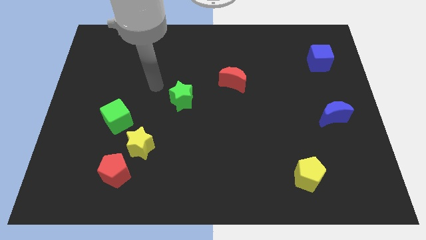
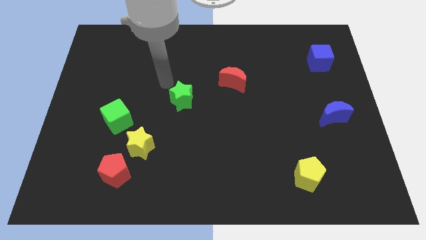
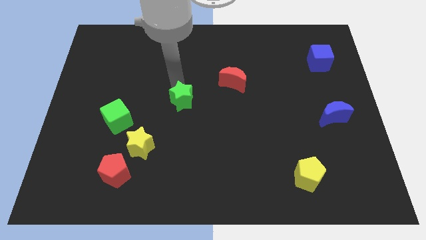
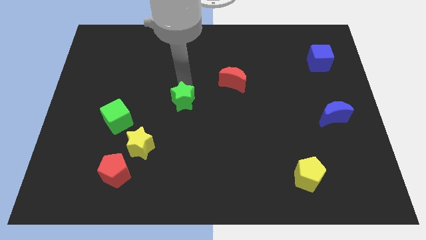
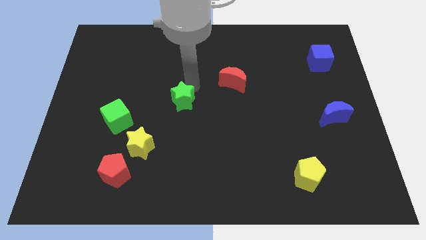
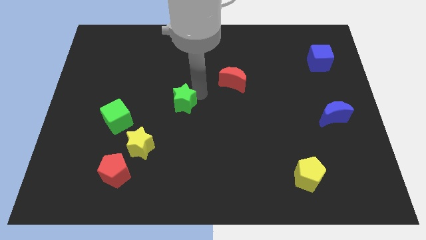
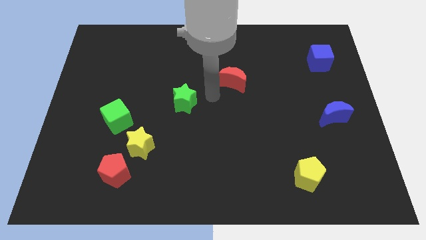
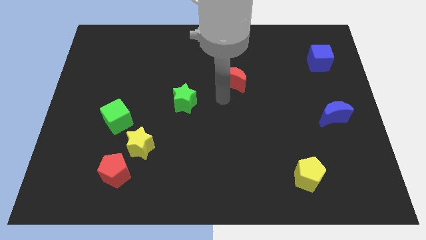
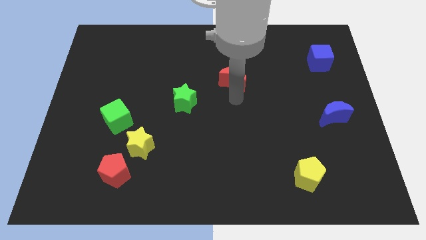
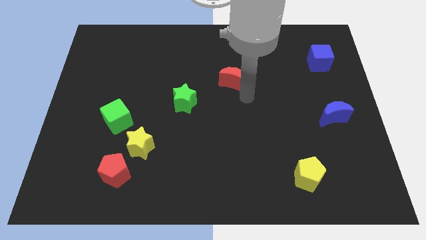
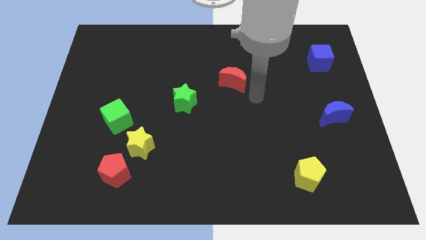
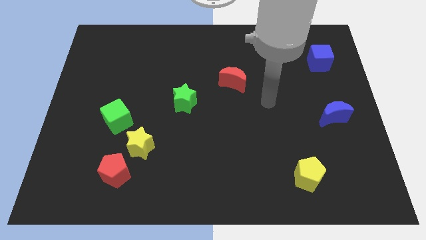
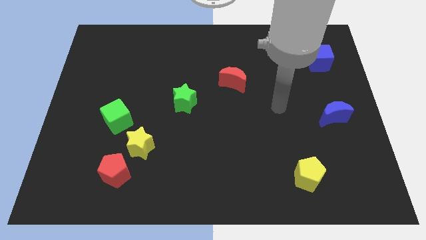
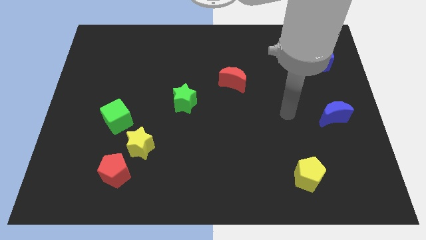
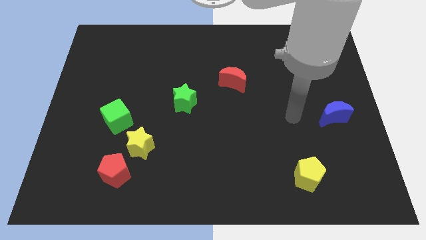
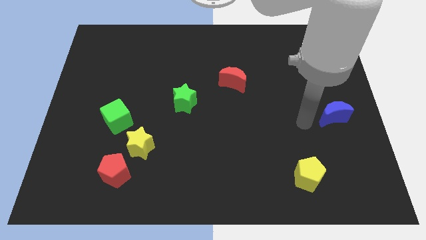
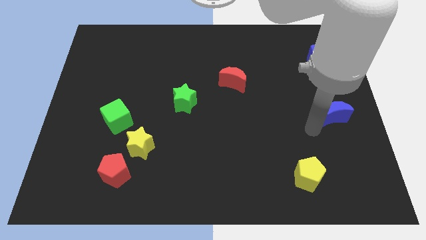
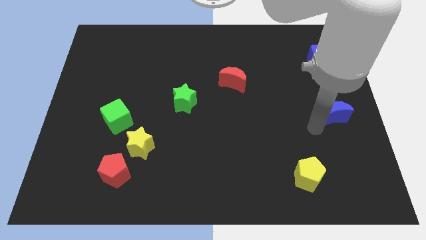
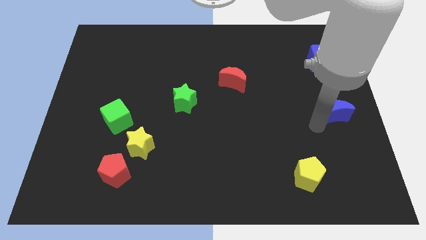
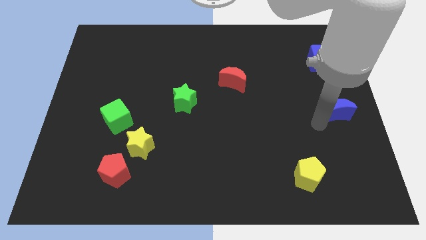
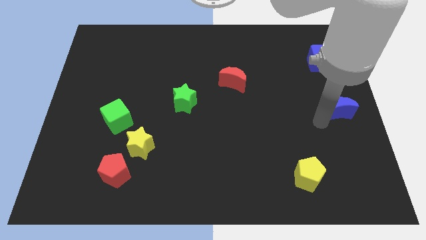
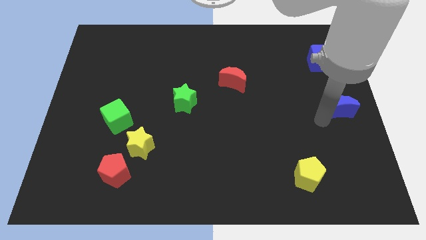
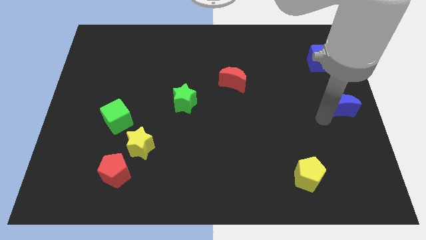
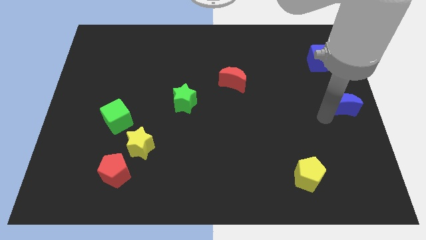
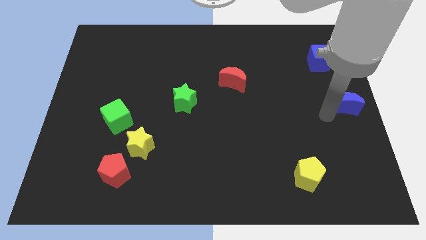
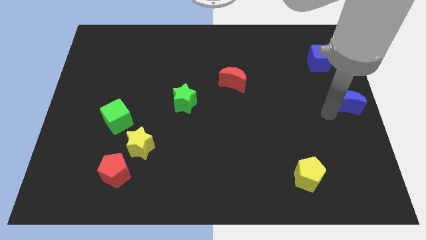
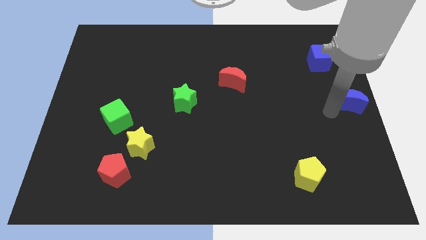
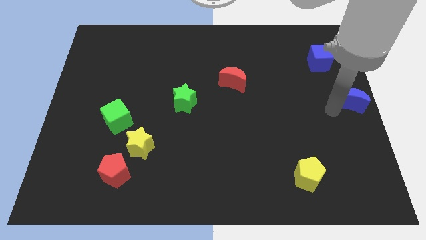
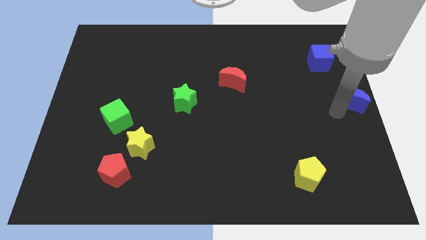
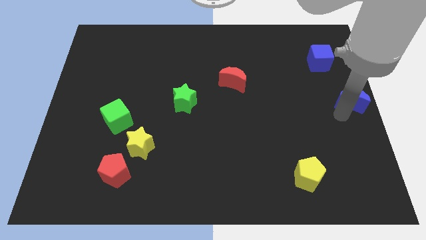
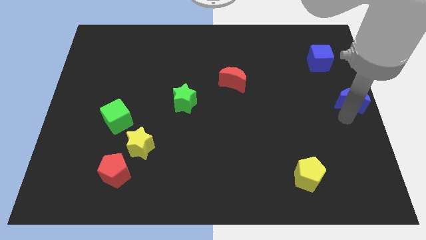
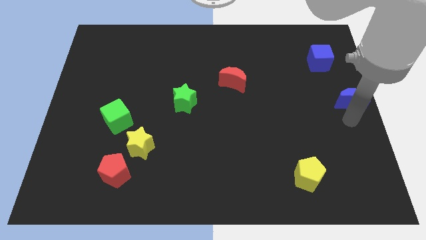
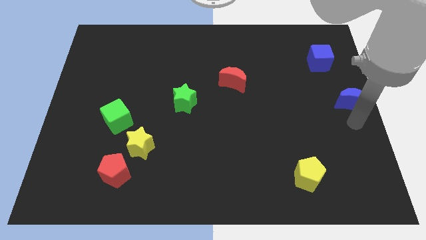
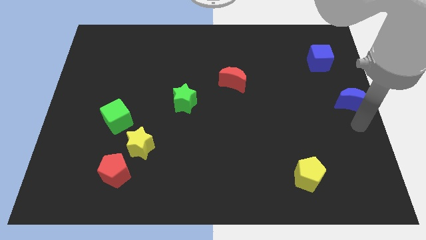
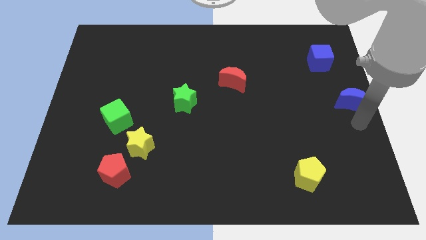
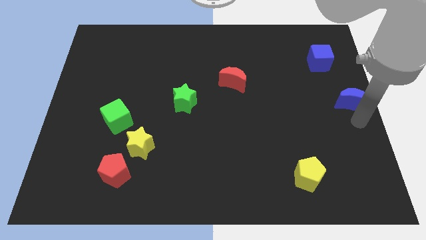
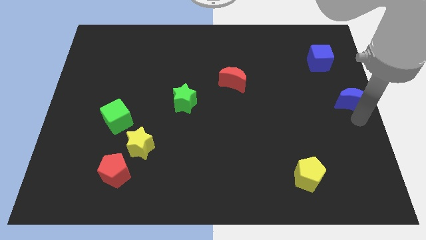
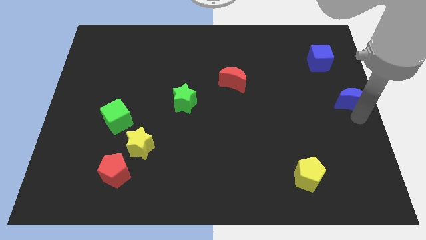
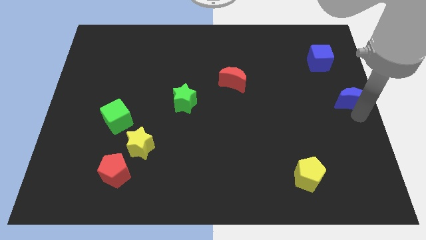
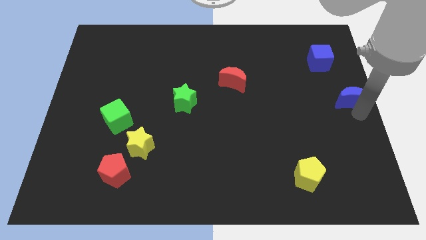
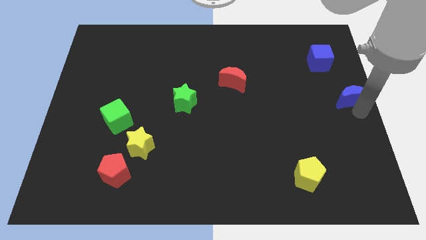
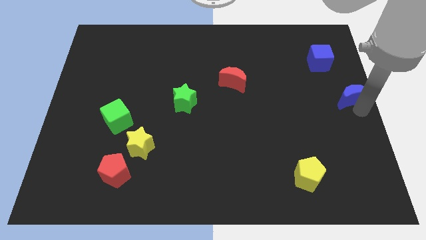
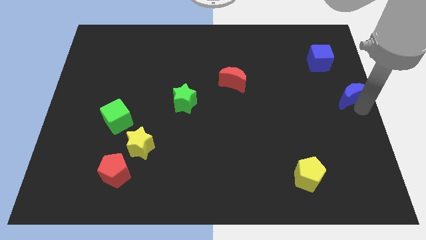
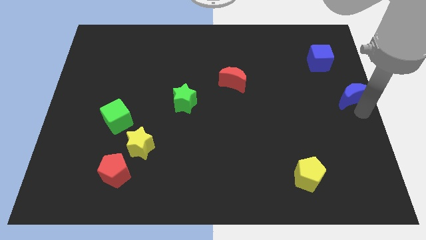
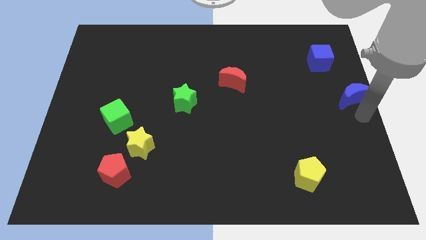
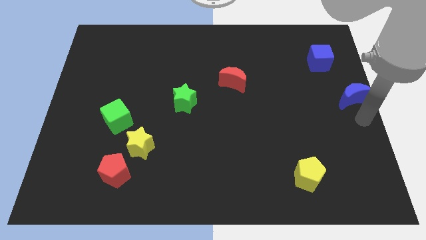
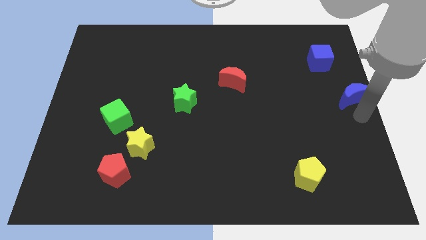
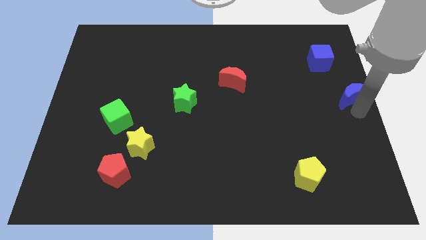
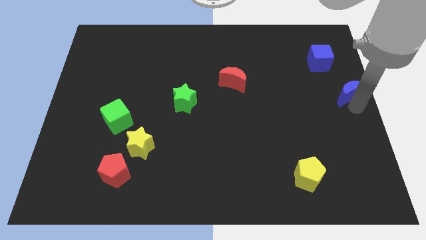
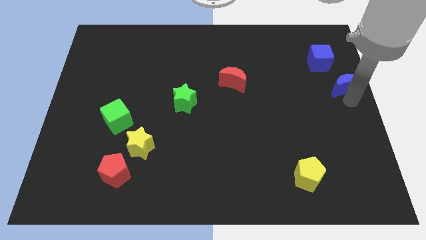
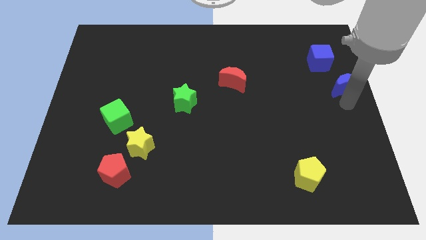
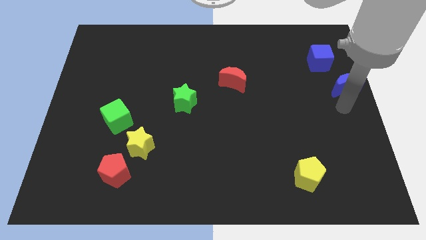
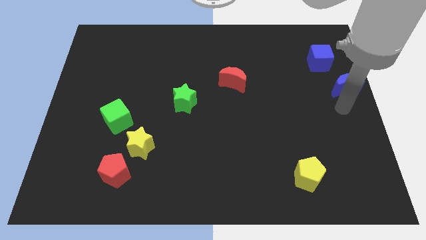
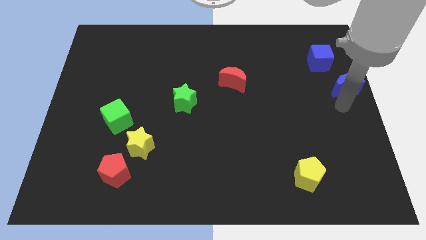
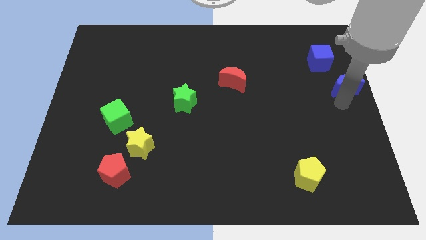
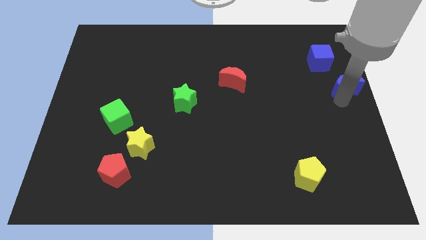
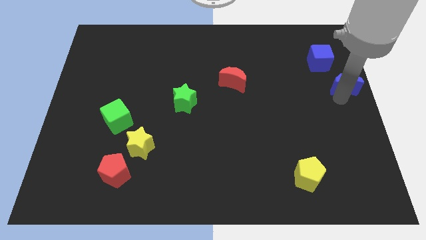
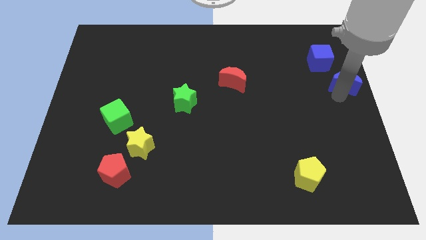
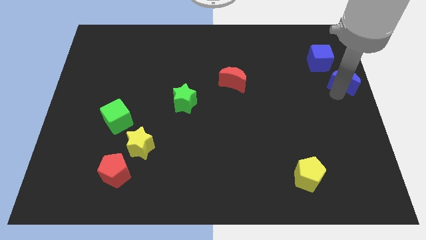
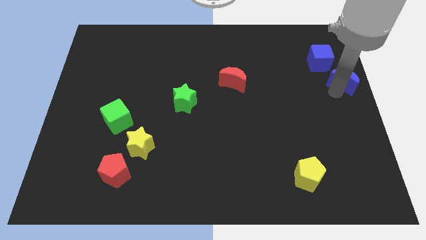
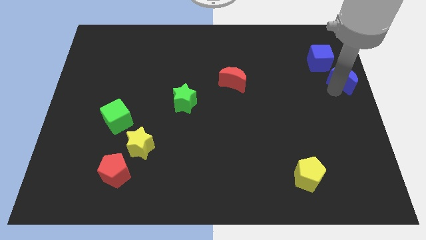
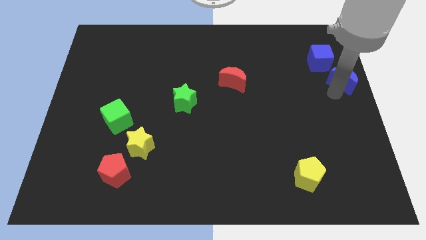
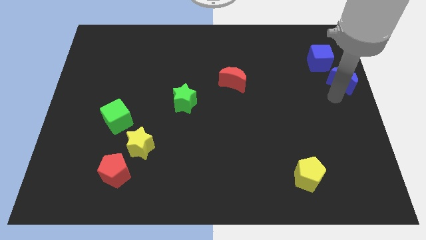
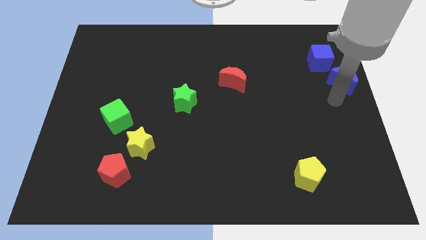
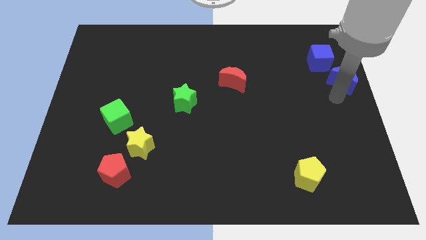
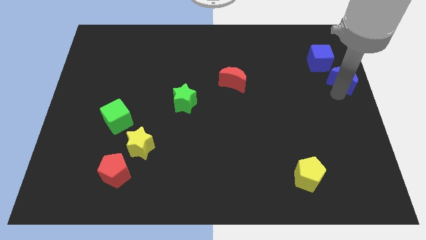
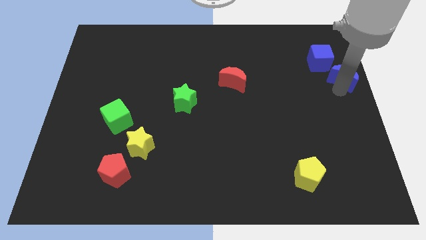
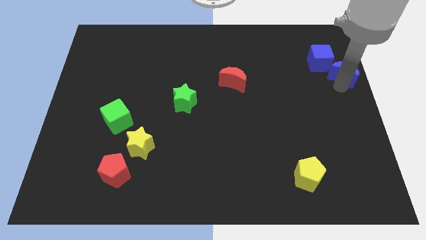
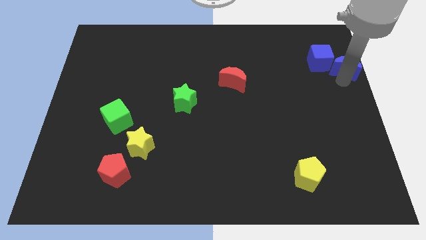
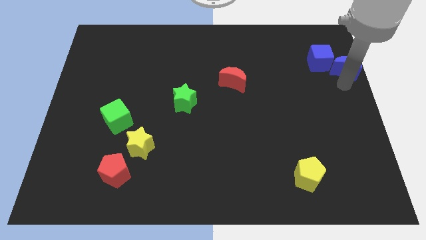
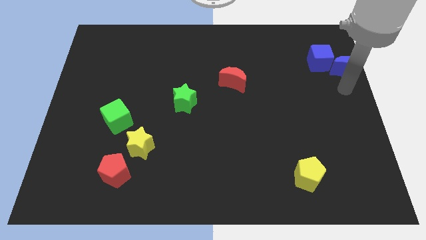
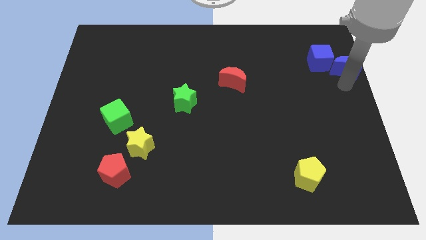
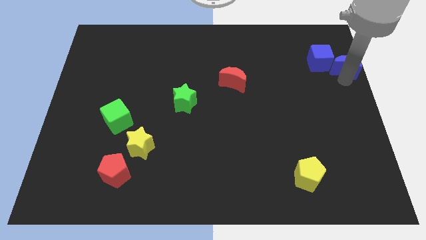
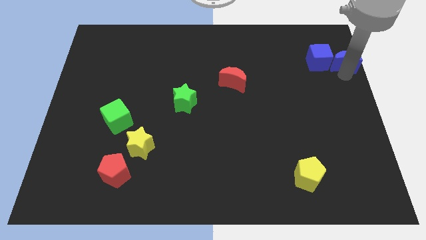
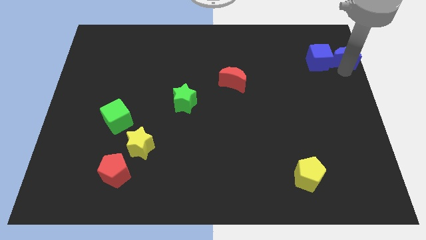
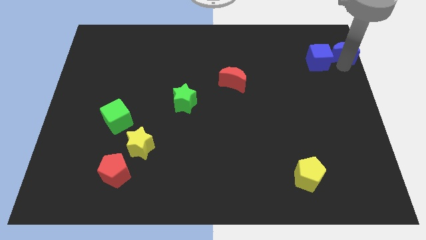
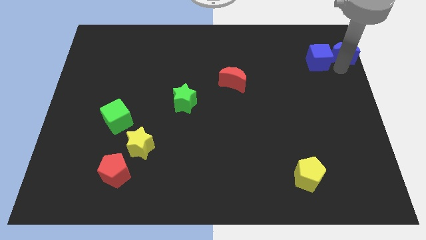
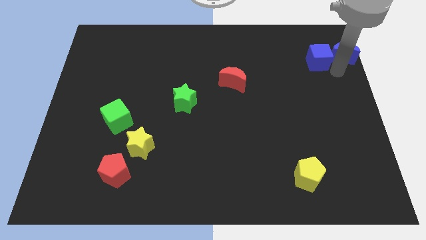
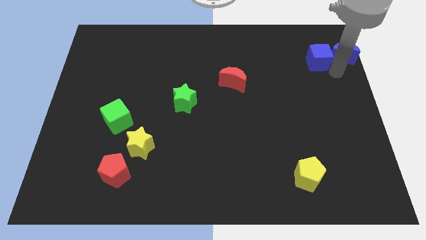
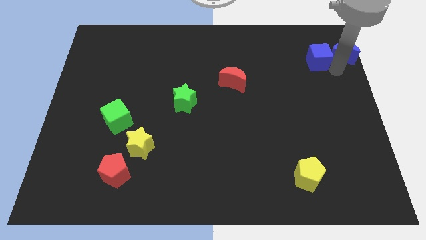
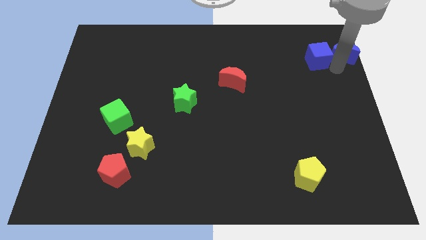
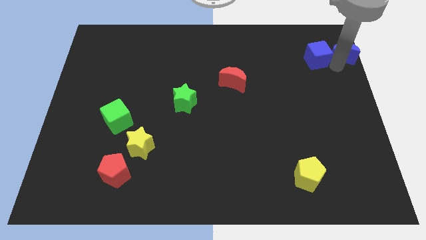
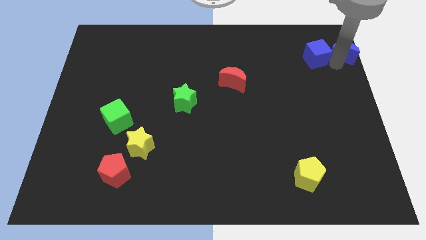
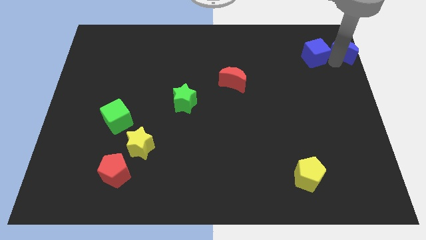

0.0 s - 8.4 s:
slide the blue moon to the top right corner
